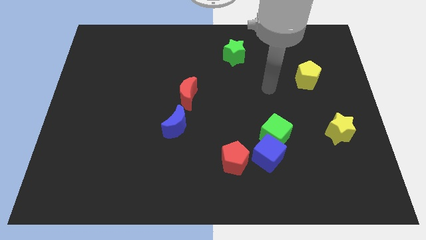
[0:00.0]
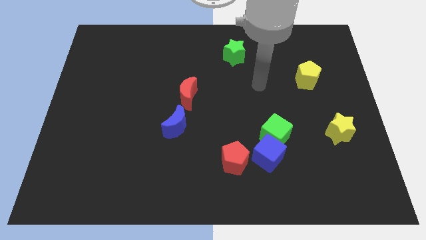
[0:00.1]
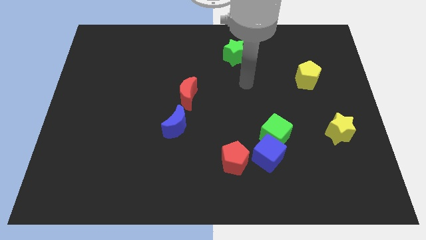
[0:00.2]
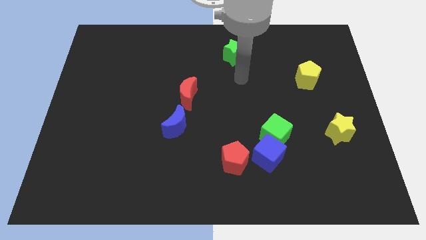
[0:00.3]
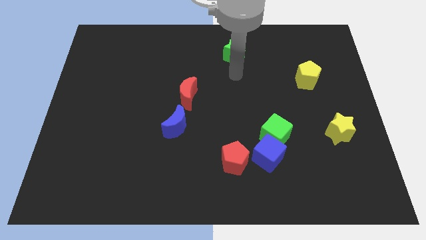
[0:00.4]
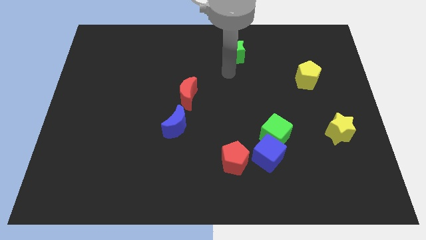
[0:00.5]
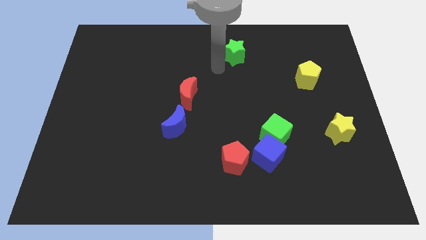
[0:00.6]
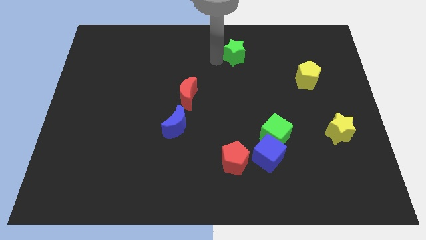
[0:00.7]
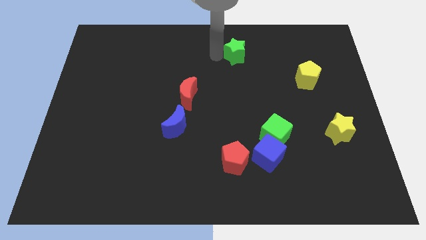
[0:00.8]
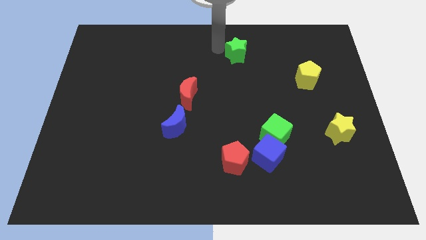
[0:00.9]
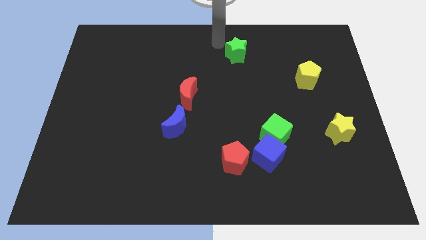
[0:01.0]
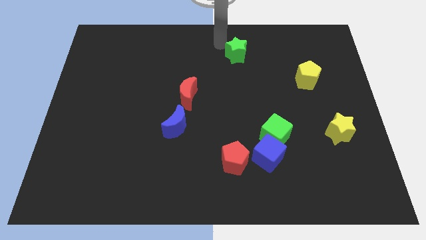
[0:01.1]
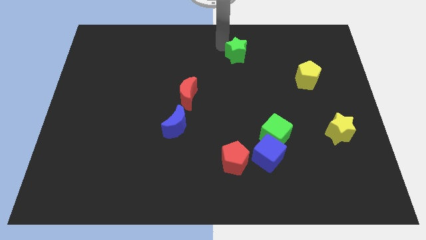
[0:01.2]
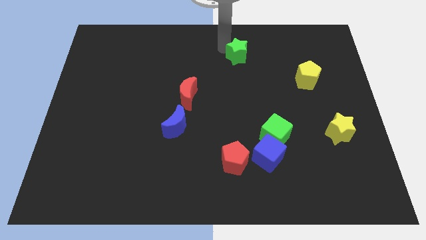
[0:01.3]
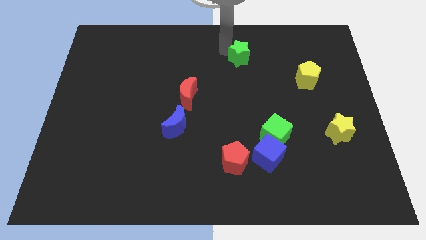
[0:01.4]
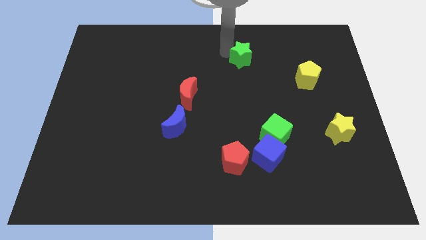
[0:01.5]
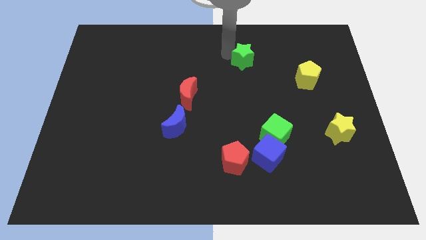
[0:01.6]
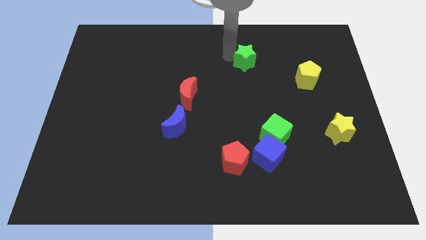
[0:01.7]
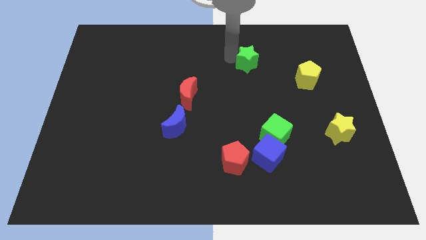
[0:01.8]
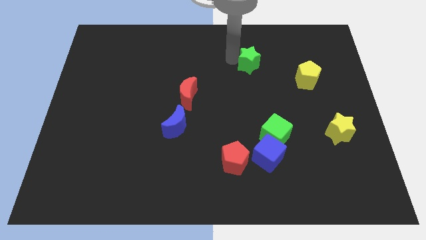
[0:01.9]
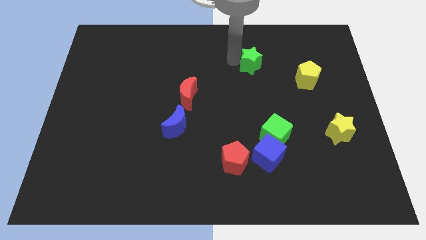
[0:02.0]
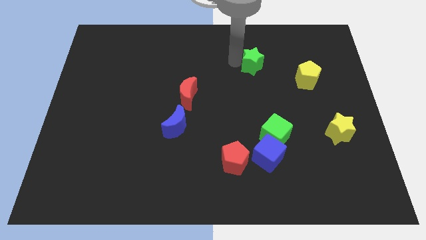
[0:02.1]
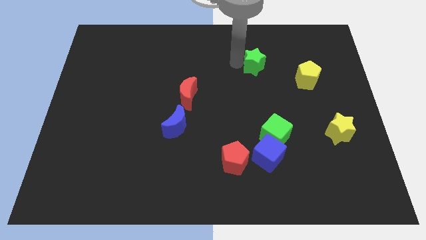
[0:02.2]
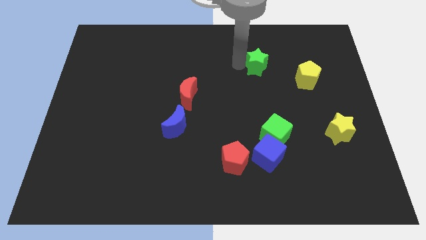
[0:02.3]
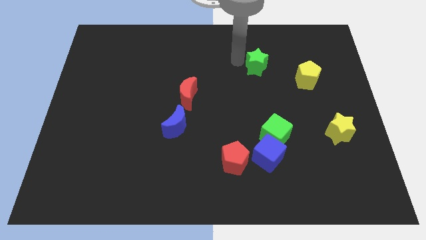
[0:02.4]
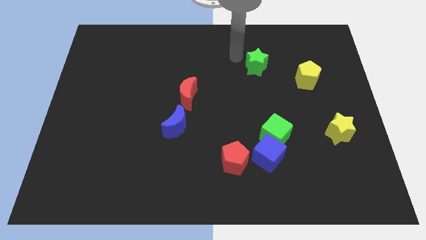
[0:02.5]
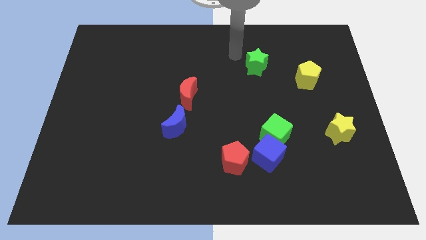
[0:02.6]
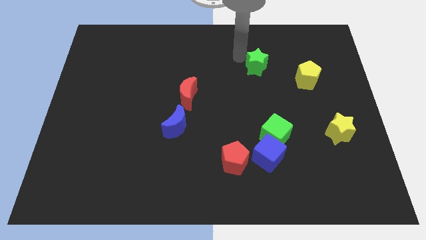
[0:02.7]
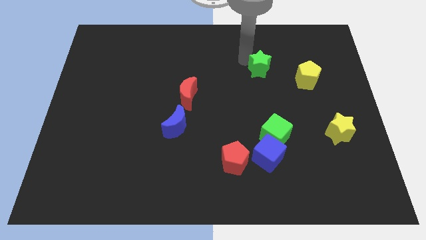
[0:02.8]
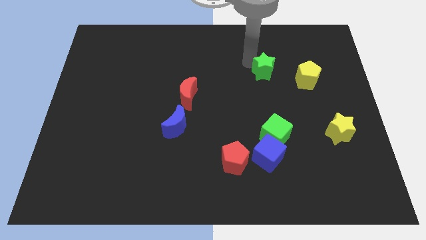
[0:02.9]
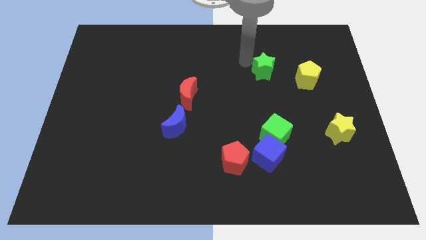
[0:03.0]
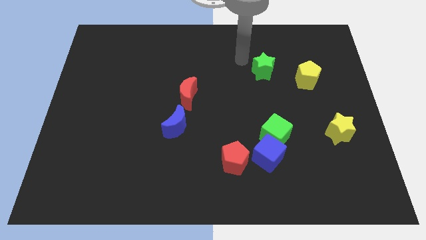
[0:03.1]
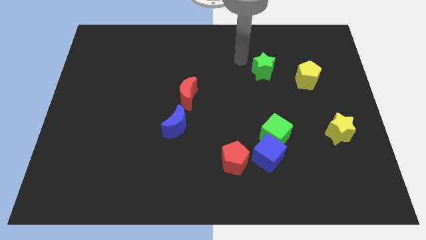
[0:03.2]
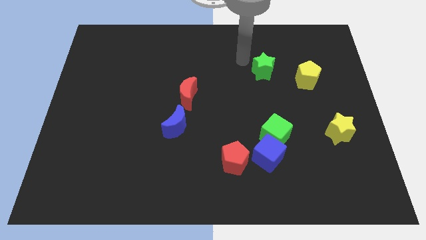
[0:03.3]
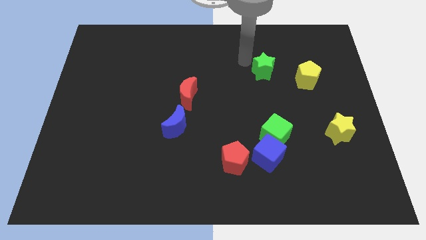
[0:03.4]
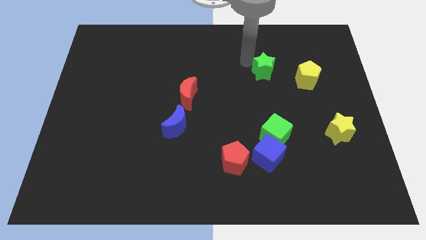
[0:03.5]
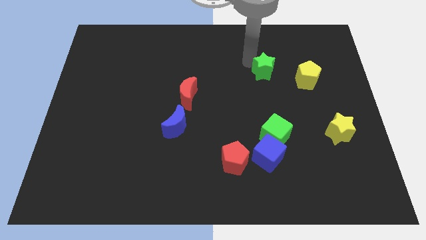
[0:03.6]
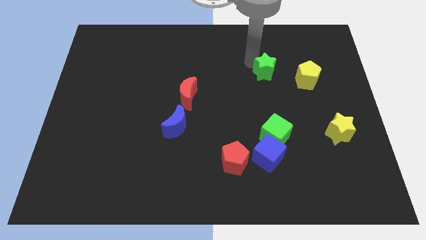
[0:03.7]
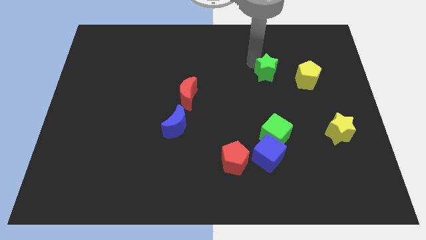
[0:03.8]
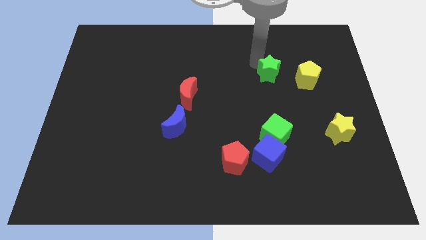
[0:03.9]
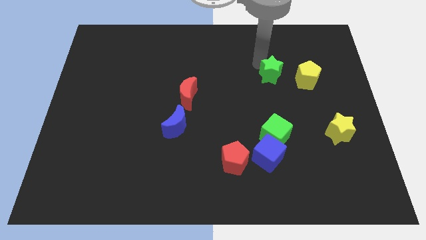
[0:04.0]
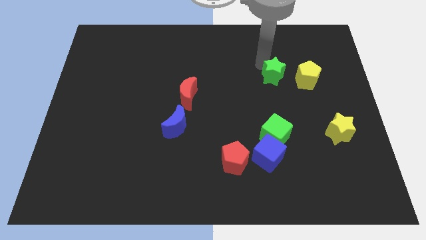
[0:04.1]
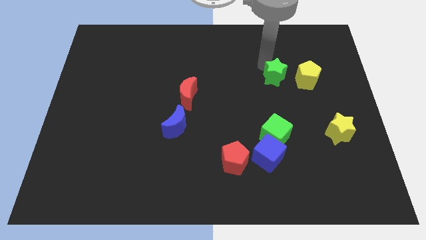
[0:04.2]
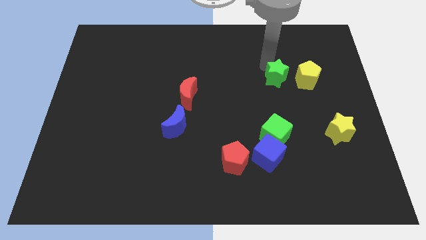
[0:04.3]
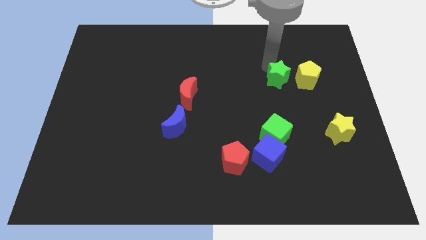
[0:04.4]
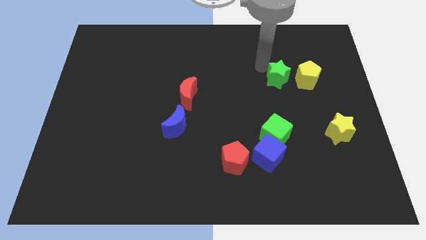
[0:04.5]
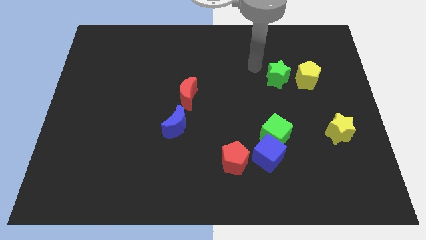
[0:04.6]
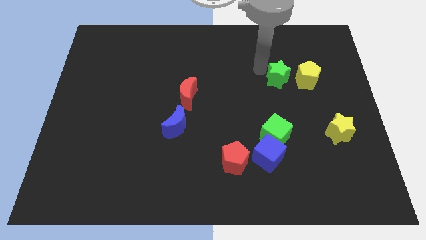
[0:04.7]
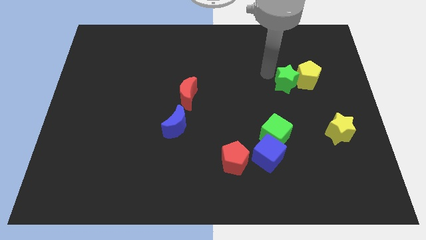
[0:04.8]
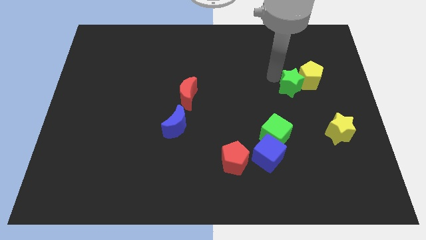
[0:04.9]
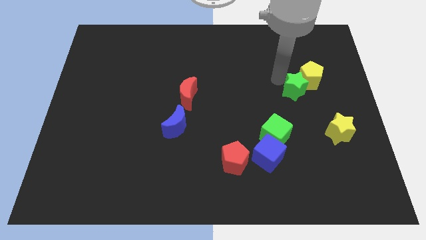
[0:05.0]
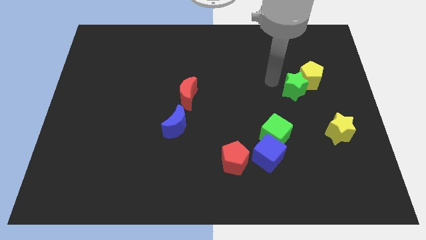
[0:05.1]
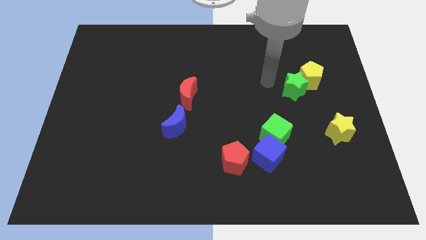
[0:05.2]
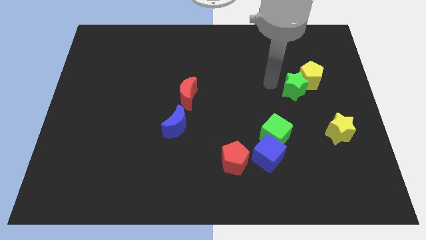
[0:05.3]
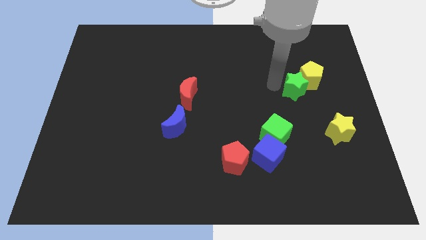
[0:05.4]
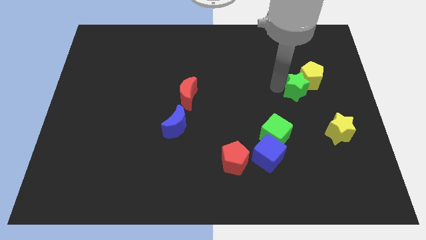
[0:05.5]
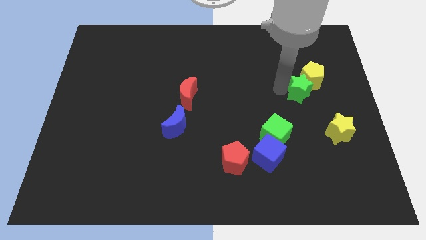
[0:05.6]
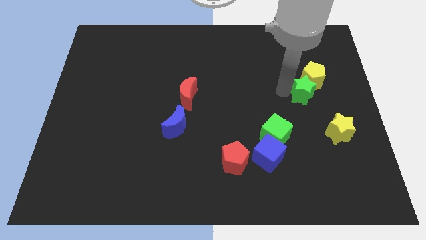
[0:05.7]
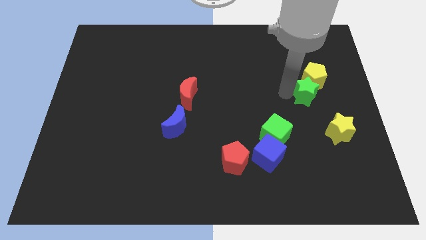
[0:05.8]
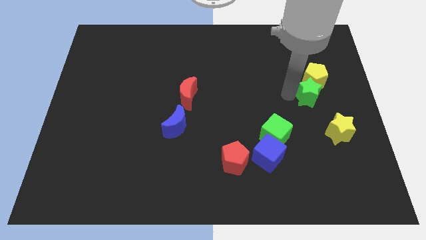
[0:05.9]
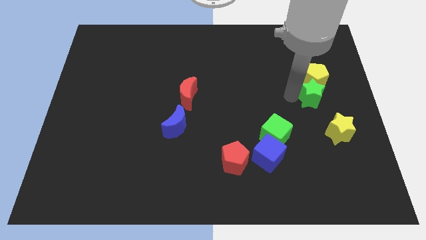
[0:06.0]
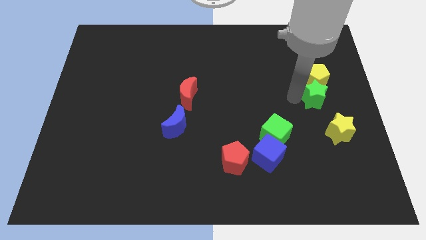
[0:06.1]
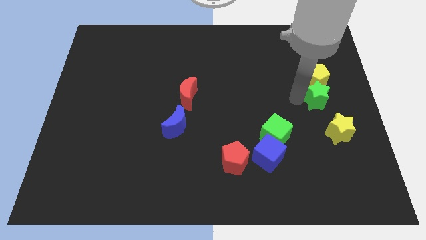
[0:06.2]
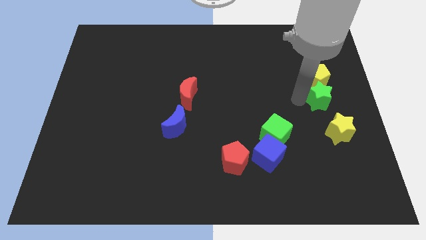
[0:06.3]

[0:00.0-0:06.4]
push the green star to the center right

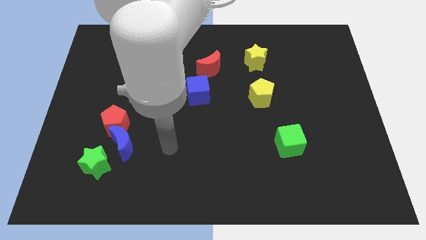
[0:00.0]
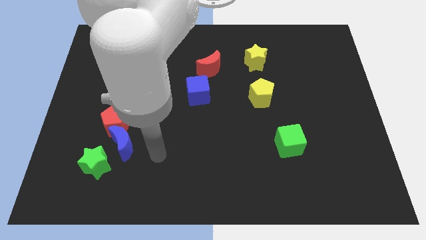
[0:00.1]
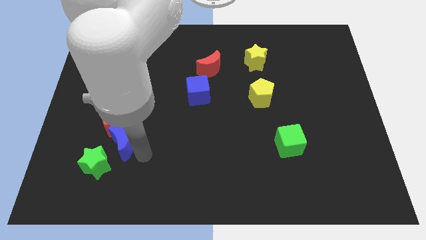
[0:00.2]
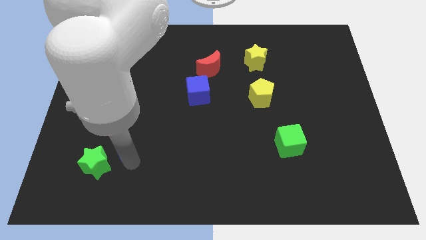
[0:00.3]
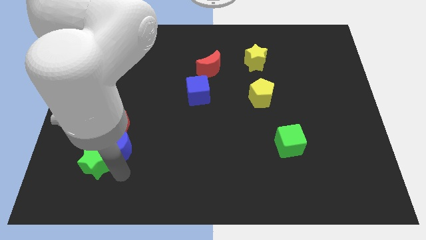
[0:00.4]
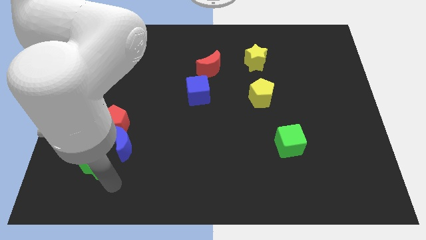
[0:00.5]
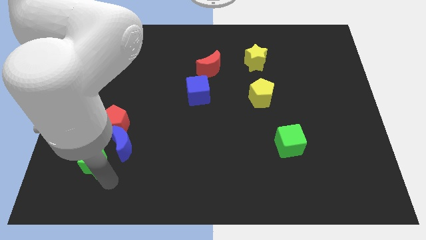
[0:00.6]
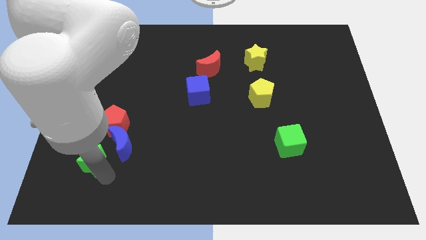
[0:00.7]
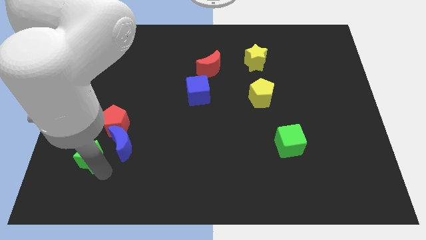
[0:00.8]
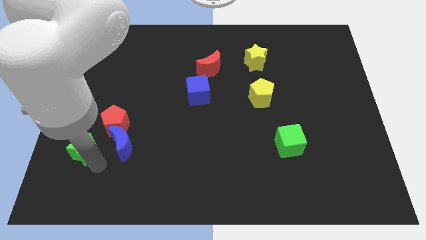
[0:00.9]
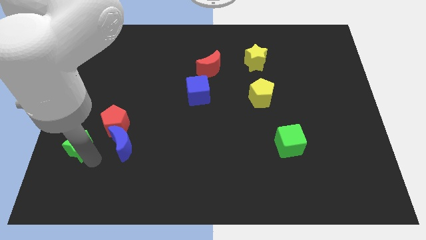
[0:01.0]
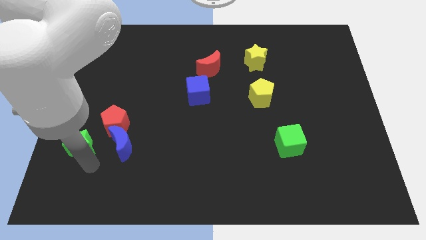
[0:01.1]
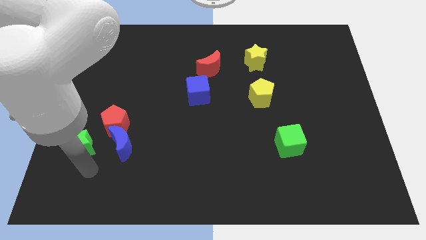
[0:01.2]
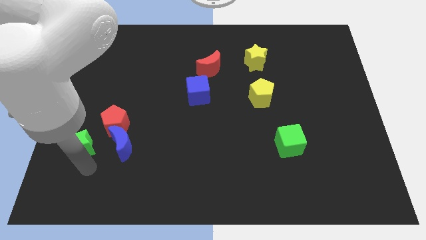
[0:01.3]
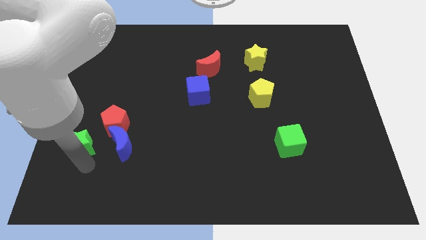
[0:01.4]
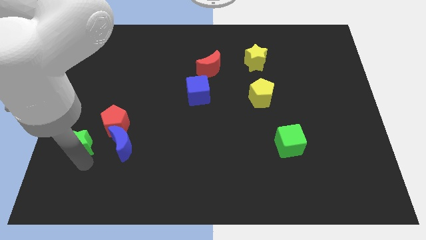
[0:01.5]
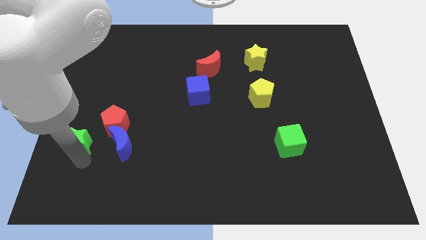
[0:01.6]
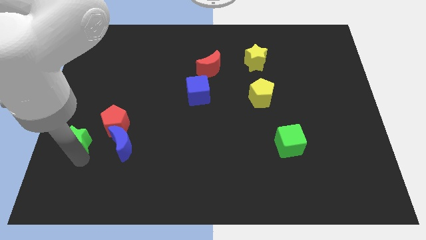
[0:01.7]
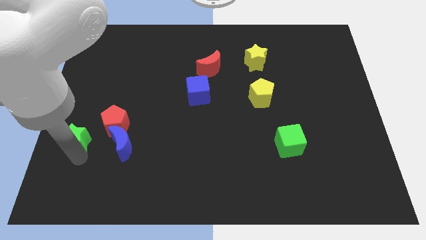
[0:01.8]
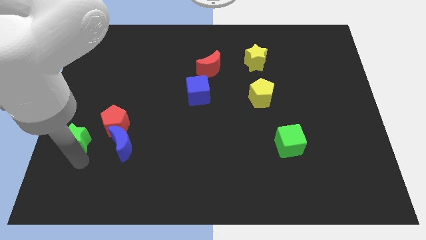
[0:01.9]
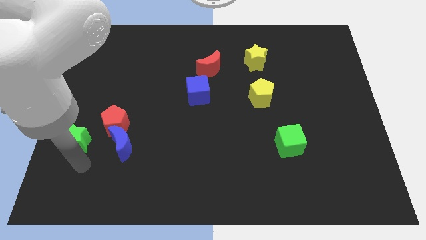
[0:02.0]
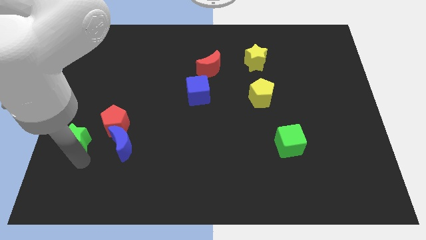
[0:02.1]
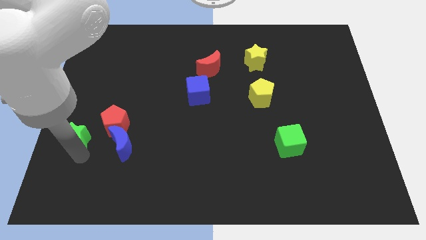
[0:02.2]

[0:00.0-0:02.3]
put the green star to the left side of the board
